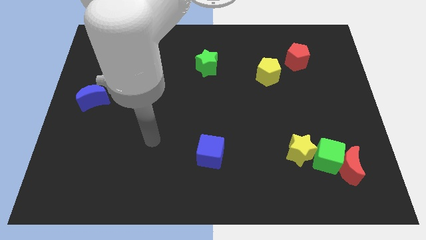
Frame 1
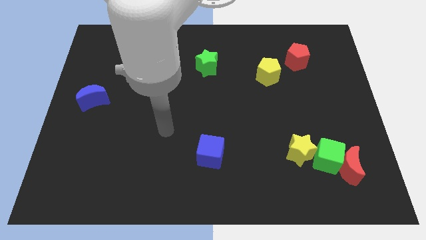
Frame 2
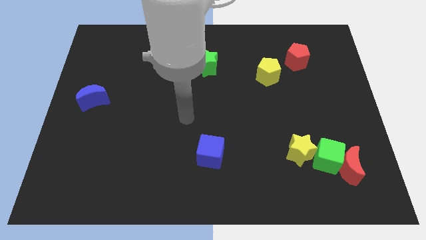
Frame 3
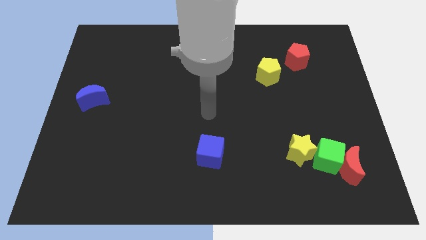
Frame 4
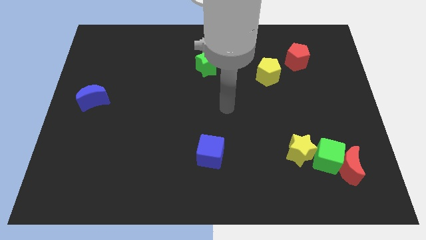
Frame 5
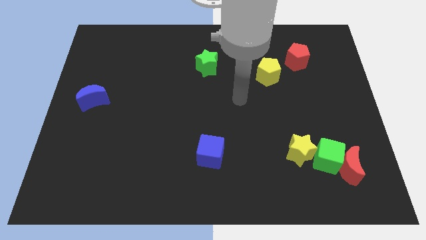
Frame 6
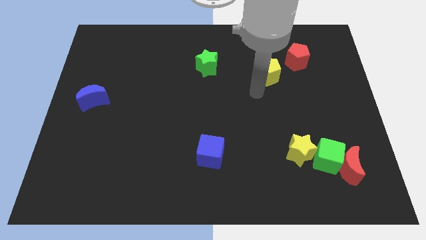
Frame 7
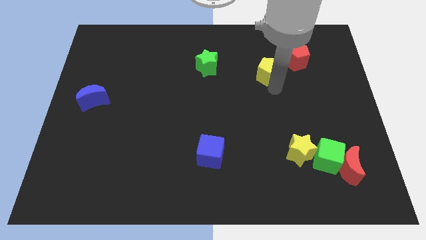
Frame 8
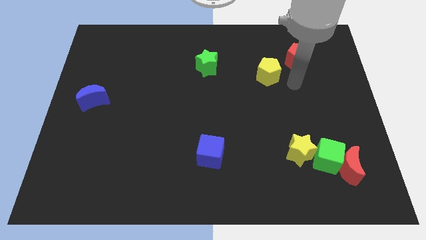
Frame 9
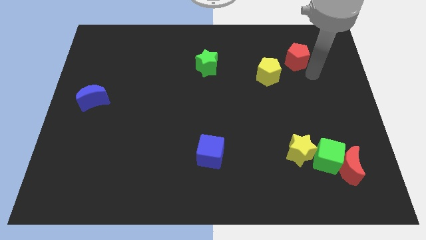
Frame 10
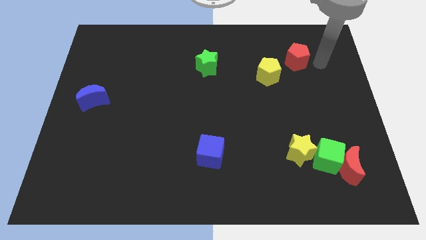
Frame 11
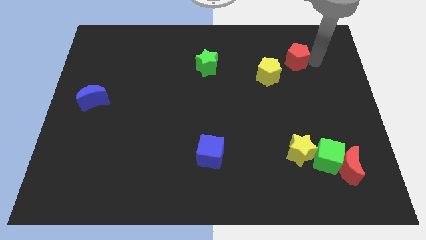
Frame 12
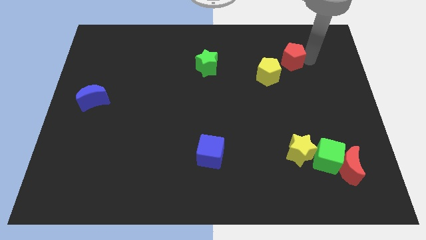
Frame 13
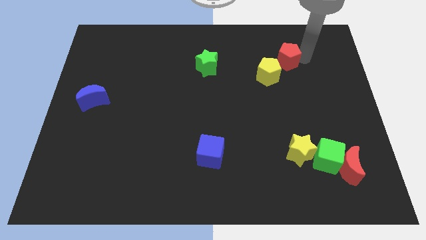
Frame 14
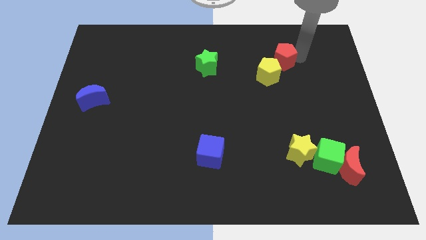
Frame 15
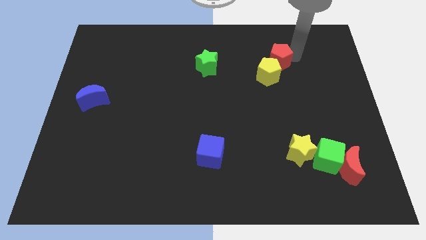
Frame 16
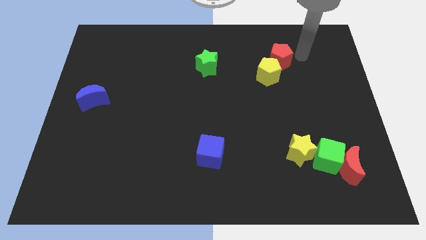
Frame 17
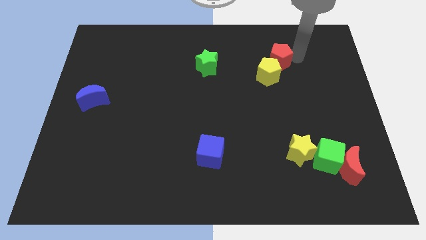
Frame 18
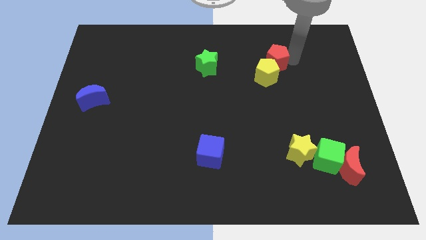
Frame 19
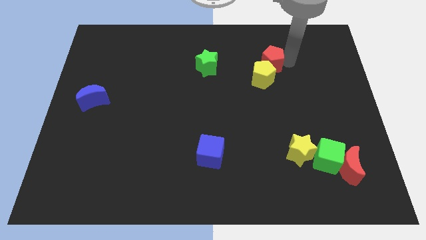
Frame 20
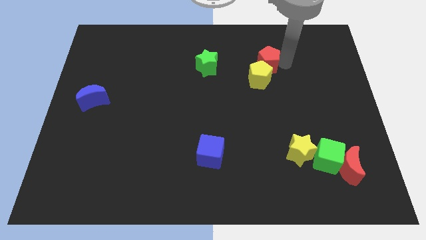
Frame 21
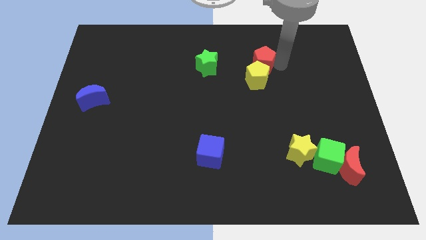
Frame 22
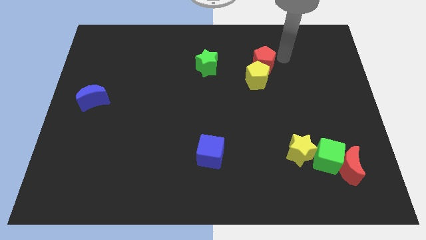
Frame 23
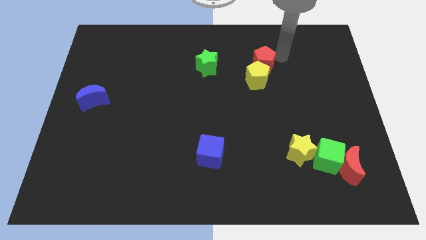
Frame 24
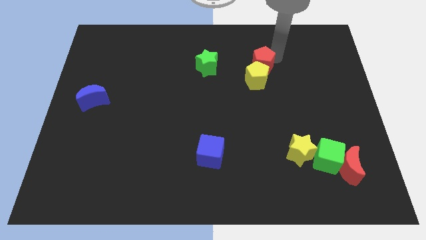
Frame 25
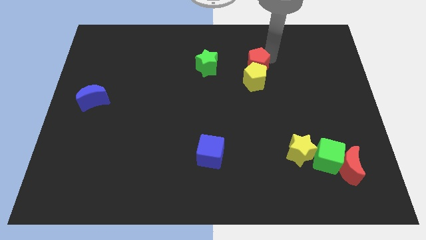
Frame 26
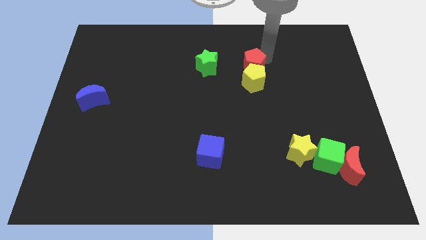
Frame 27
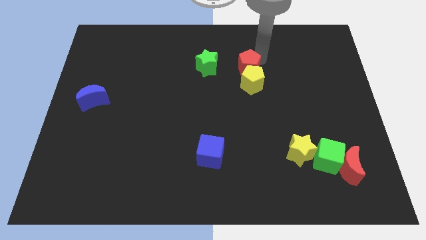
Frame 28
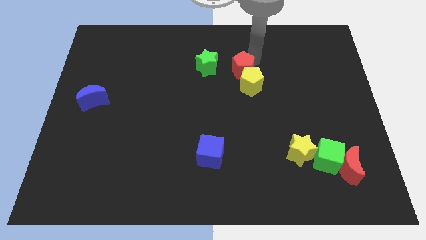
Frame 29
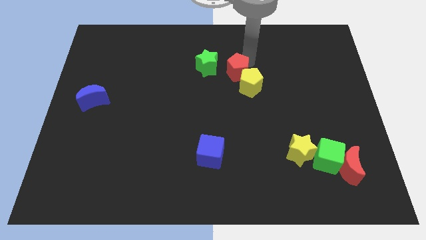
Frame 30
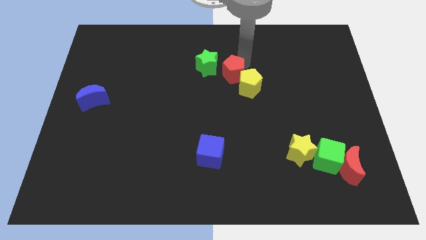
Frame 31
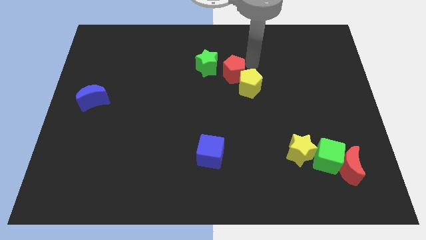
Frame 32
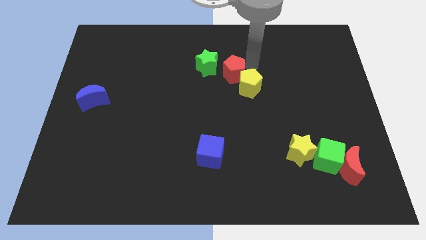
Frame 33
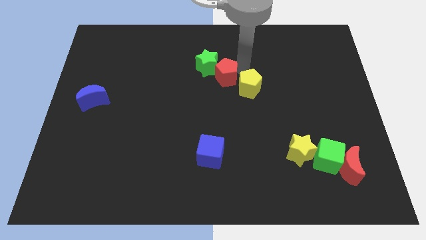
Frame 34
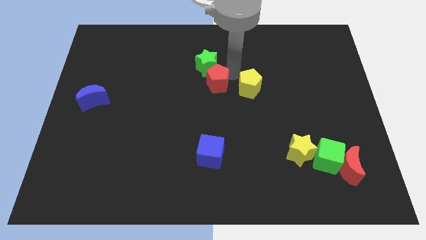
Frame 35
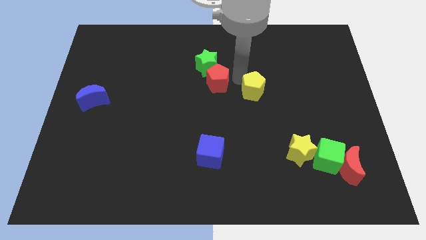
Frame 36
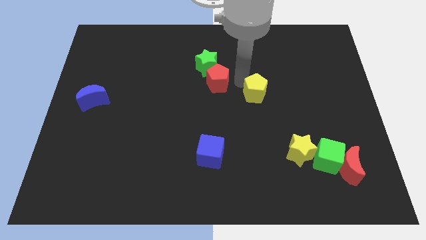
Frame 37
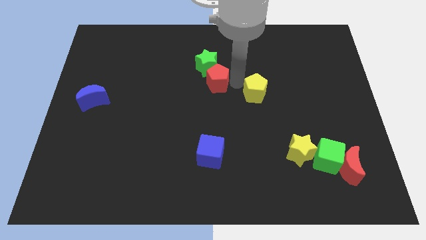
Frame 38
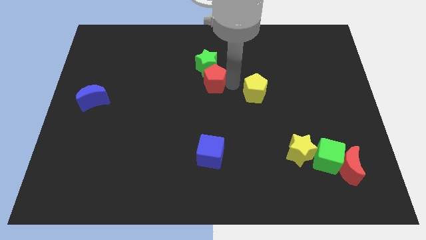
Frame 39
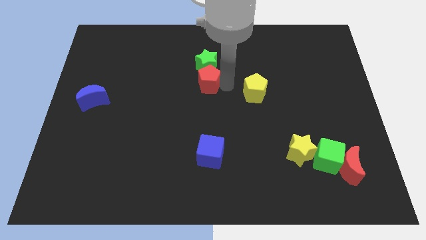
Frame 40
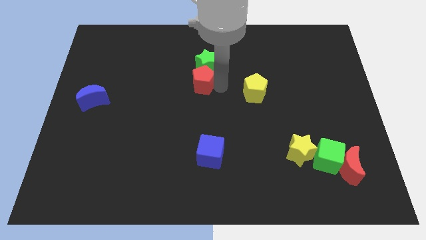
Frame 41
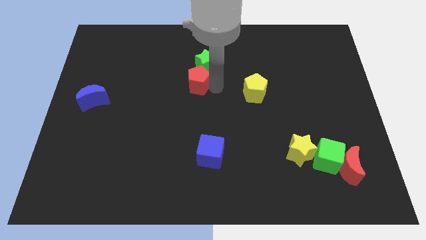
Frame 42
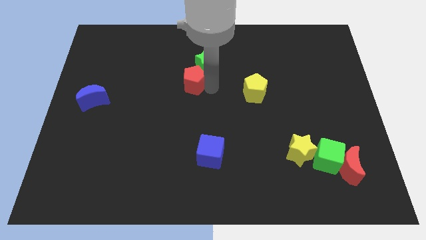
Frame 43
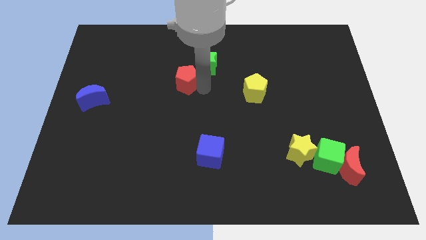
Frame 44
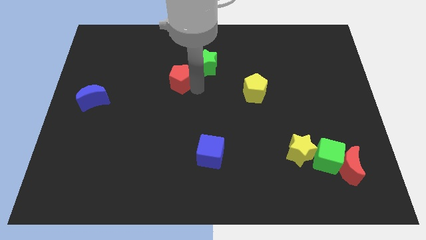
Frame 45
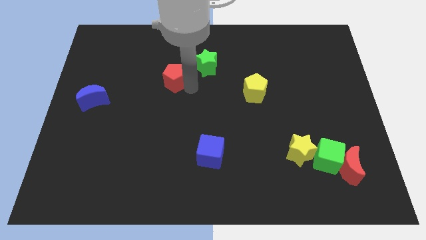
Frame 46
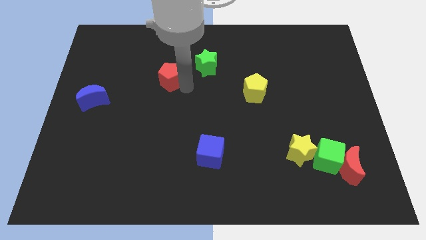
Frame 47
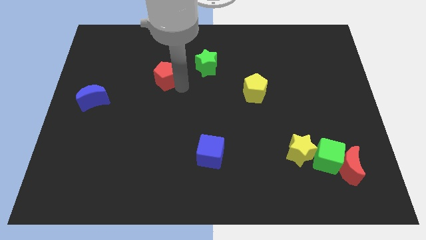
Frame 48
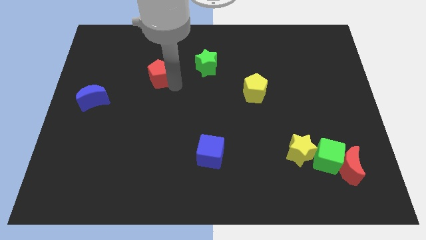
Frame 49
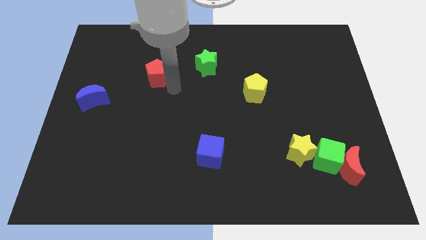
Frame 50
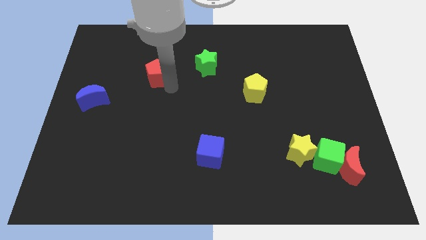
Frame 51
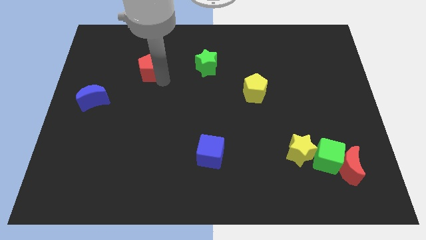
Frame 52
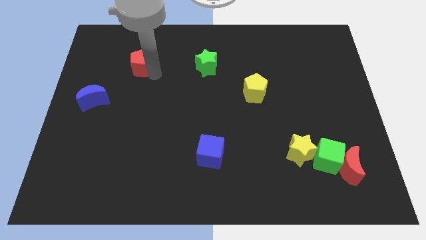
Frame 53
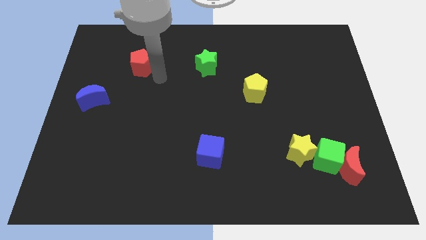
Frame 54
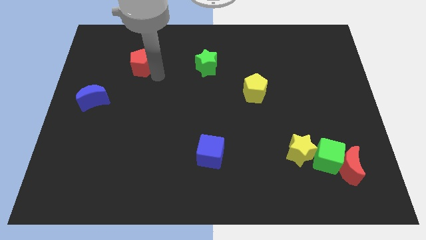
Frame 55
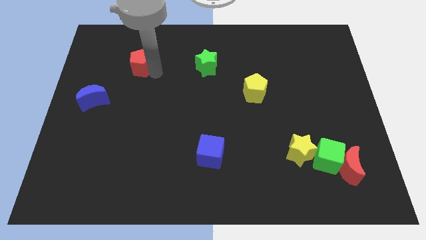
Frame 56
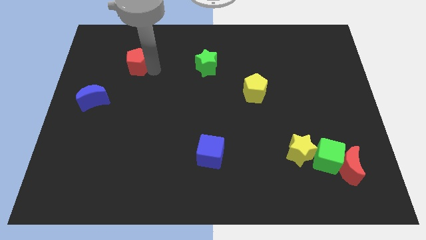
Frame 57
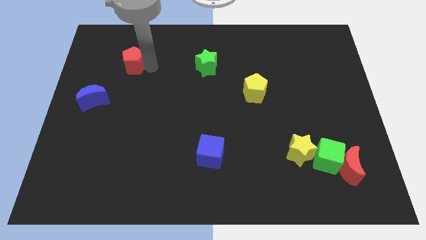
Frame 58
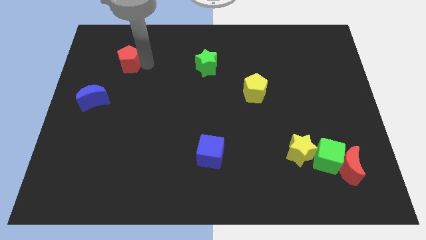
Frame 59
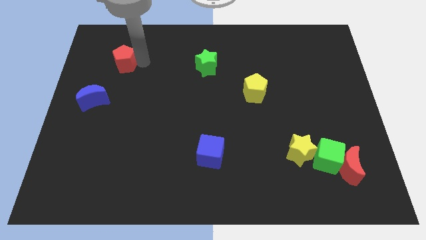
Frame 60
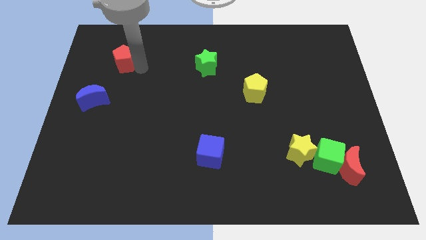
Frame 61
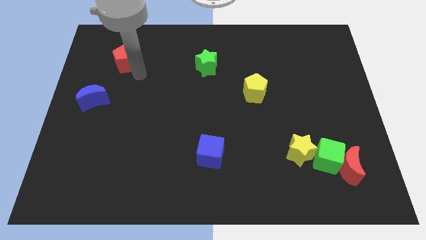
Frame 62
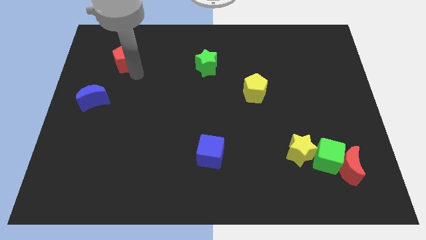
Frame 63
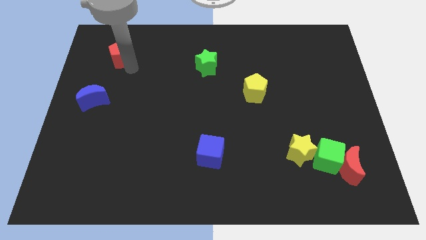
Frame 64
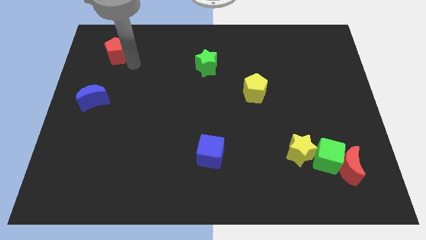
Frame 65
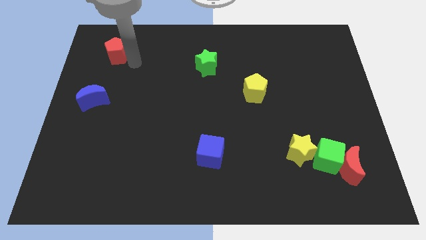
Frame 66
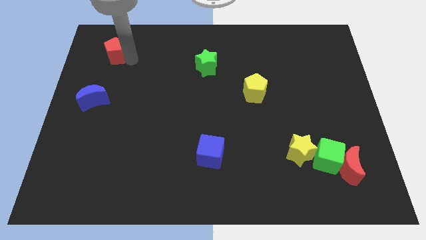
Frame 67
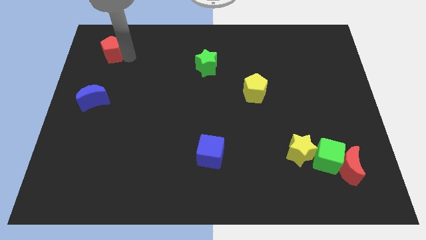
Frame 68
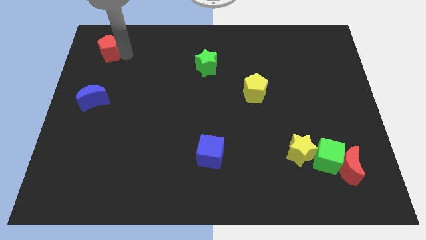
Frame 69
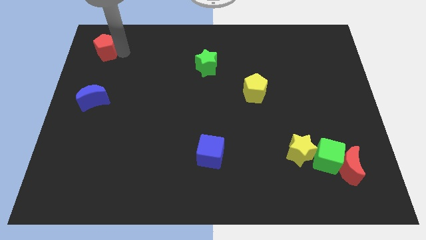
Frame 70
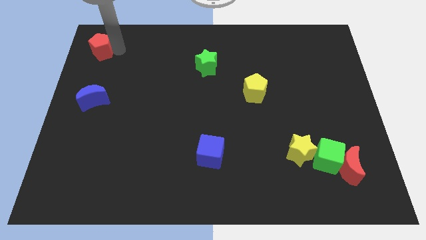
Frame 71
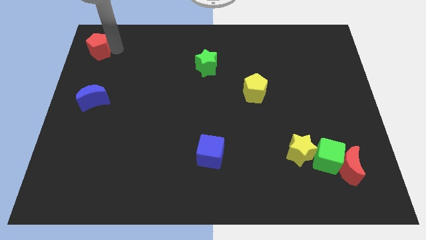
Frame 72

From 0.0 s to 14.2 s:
slide the red pentagon to the top left corner
